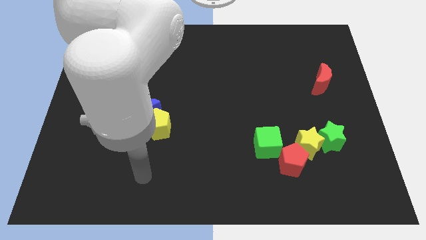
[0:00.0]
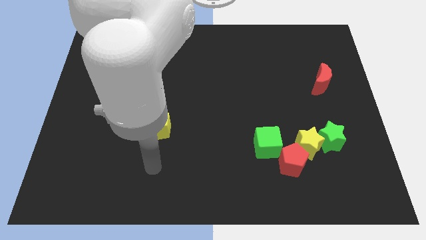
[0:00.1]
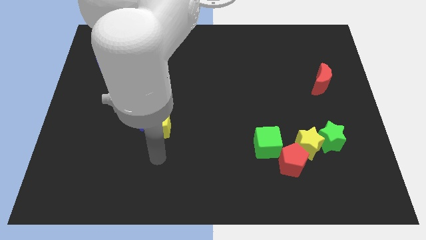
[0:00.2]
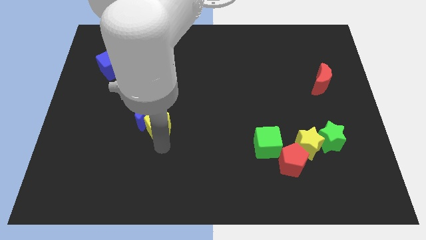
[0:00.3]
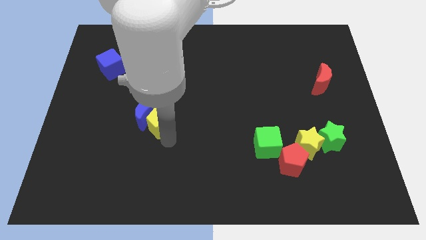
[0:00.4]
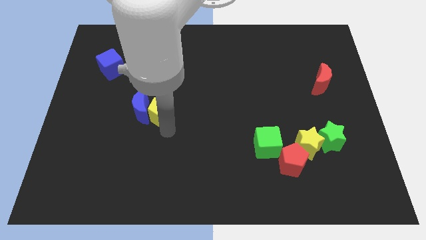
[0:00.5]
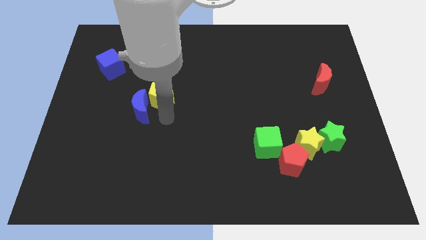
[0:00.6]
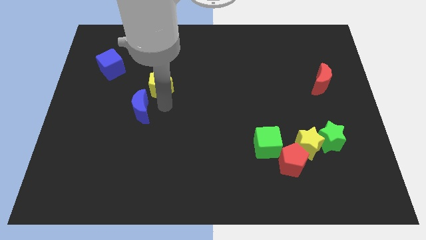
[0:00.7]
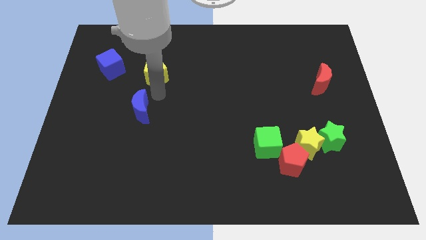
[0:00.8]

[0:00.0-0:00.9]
pull the blue moon apart from the yellow pentagon

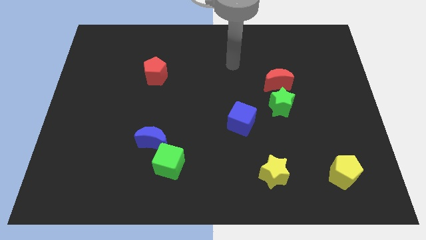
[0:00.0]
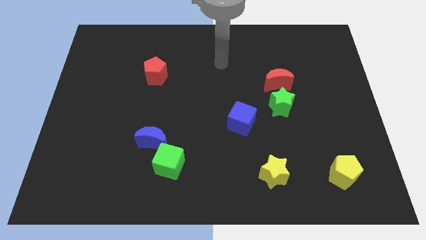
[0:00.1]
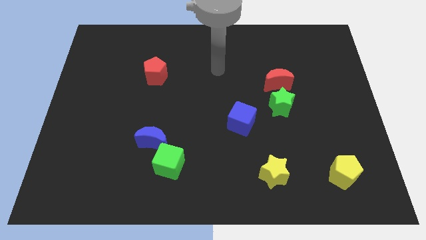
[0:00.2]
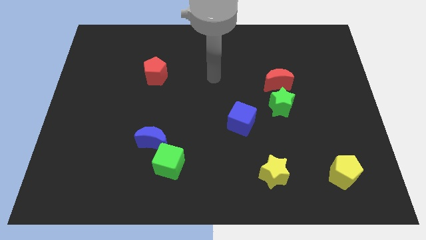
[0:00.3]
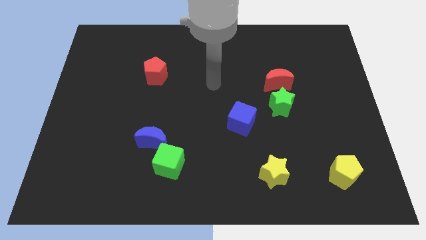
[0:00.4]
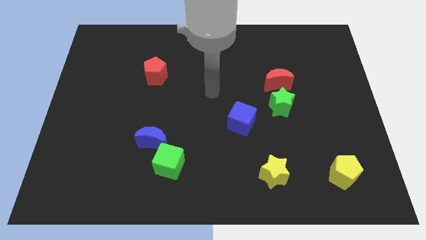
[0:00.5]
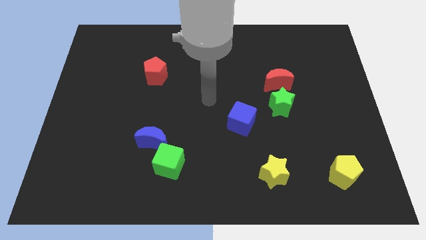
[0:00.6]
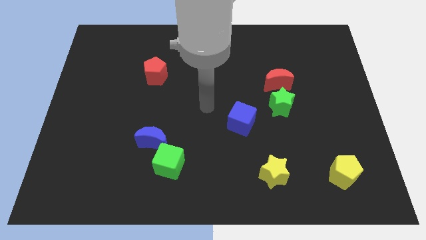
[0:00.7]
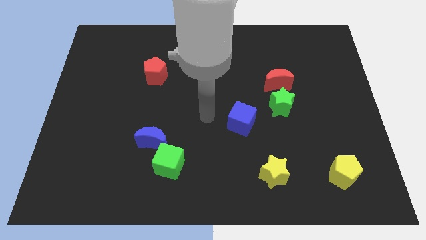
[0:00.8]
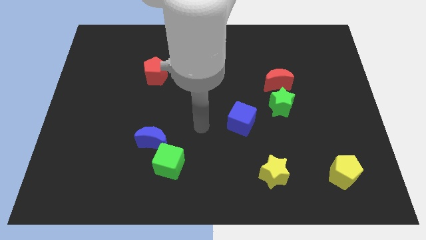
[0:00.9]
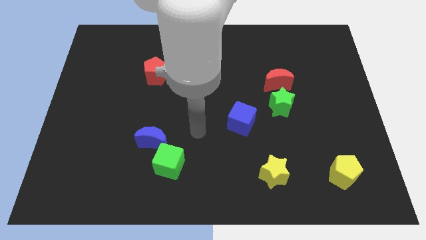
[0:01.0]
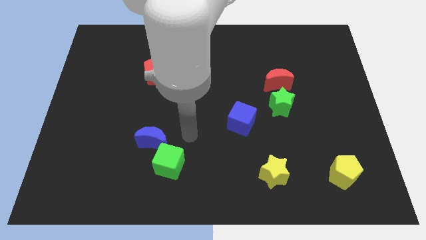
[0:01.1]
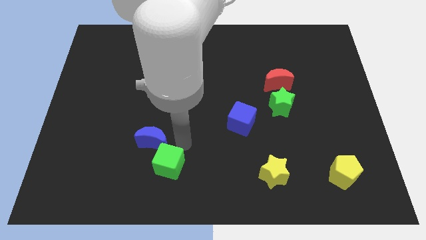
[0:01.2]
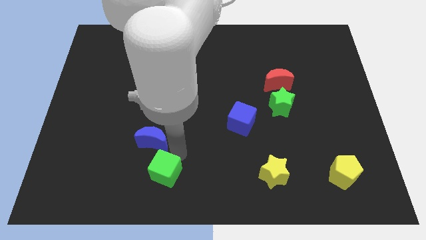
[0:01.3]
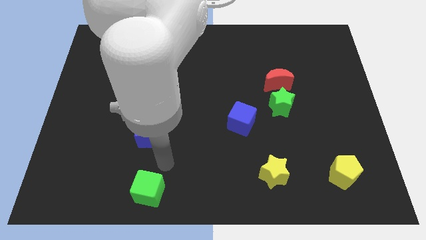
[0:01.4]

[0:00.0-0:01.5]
move the blue moon away from the green cube

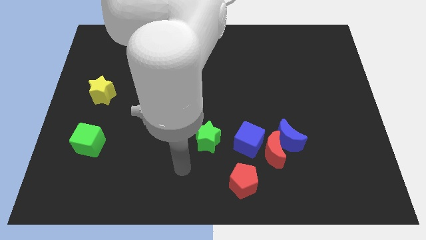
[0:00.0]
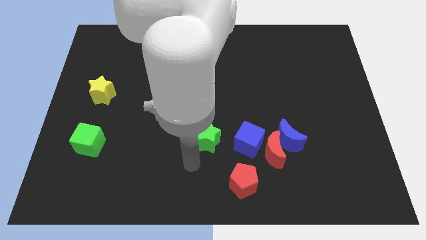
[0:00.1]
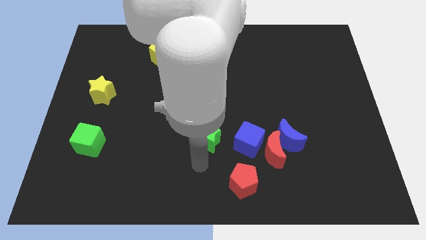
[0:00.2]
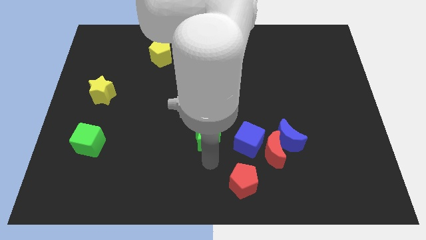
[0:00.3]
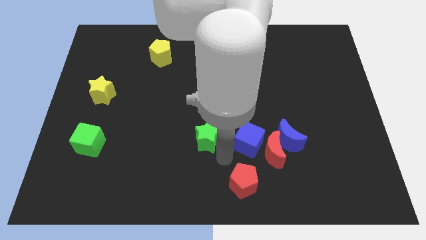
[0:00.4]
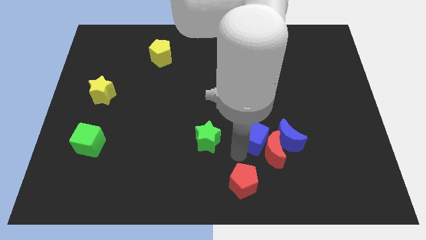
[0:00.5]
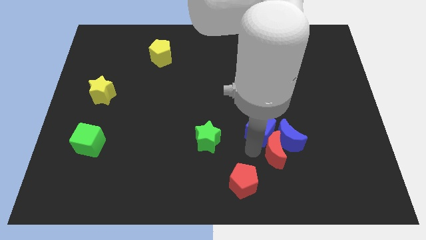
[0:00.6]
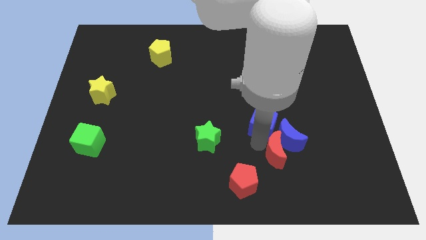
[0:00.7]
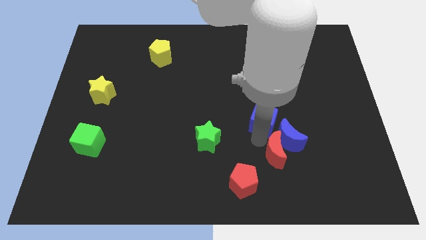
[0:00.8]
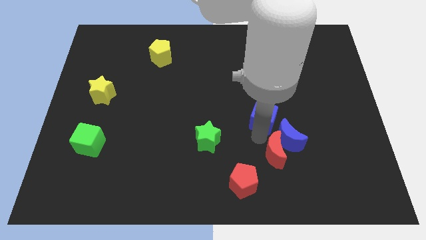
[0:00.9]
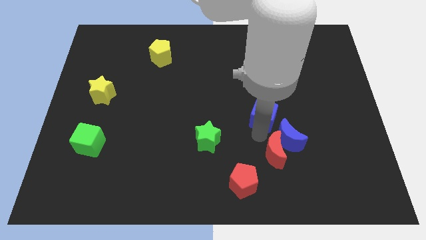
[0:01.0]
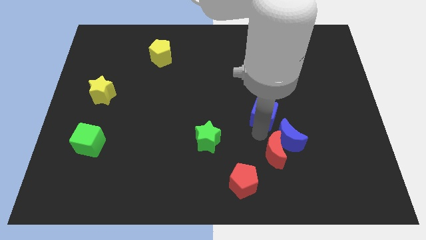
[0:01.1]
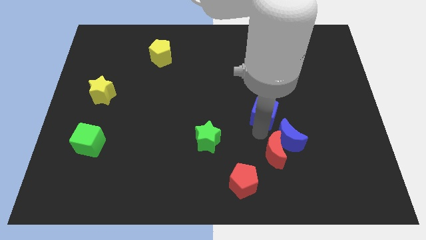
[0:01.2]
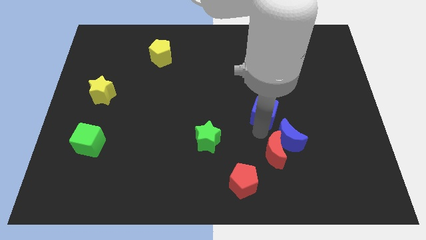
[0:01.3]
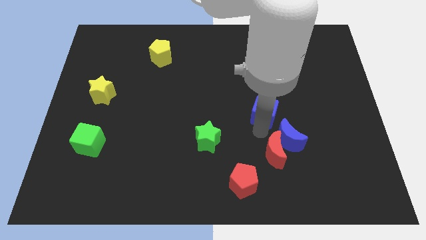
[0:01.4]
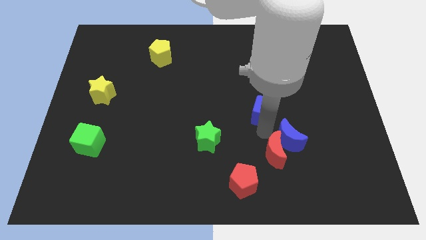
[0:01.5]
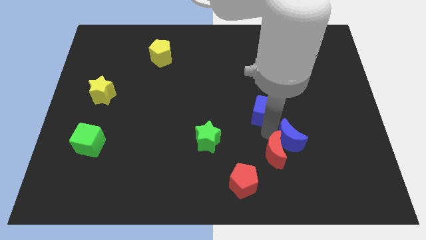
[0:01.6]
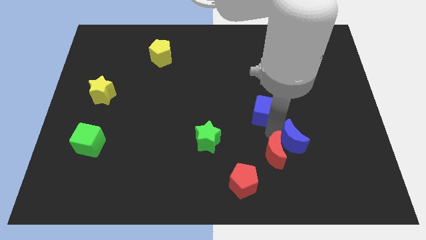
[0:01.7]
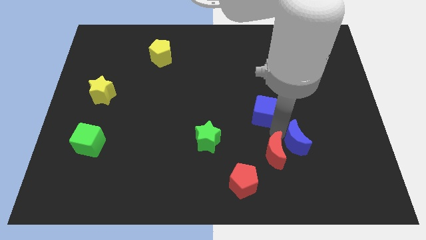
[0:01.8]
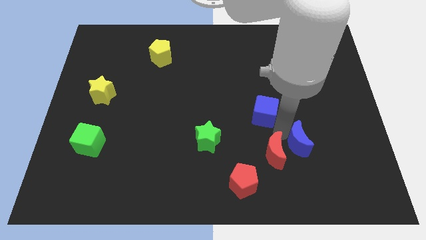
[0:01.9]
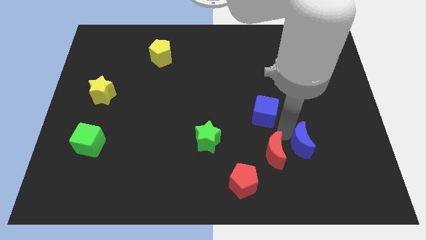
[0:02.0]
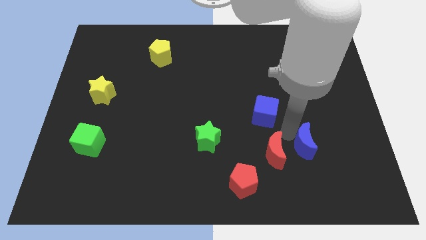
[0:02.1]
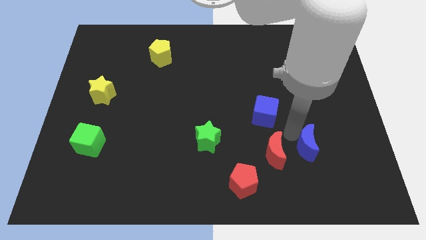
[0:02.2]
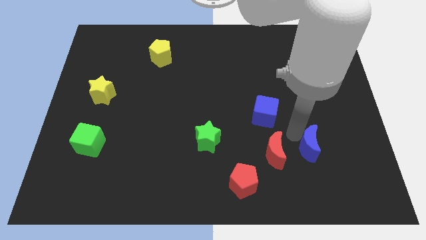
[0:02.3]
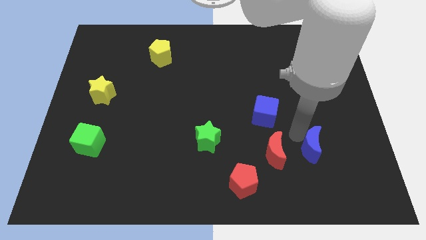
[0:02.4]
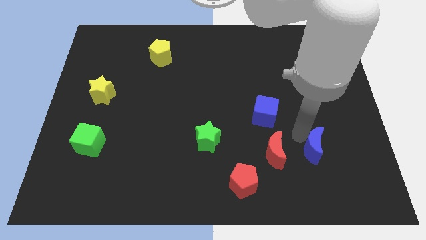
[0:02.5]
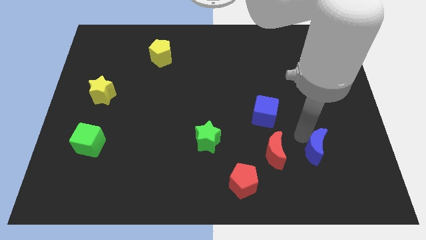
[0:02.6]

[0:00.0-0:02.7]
pull the blue moon apart from the red moon and blue cube

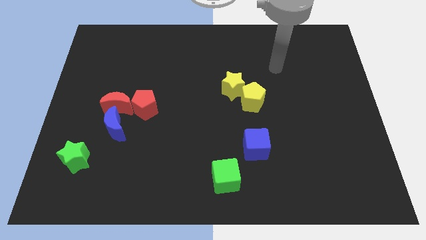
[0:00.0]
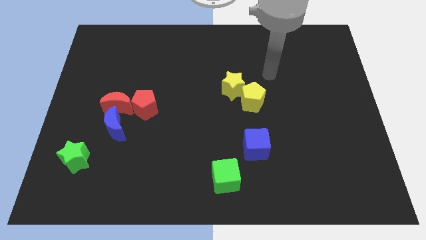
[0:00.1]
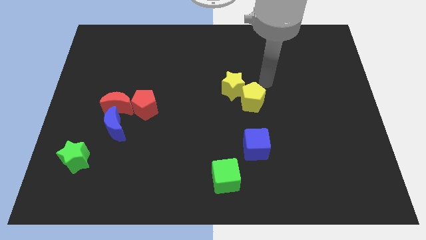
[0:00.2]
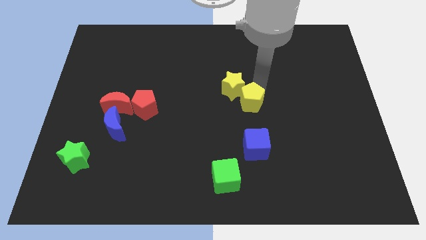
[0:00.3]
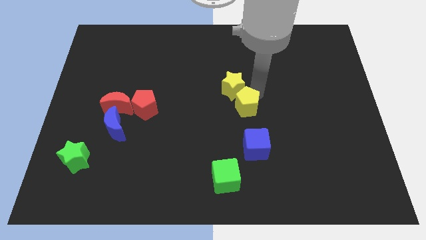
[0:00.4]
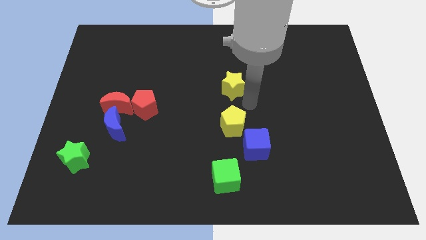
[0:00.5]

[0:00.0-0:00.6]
pull the yellow star apart from the yellow pentagon

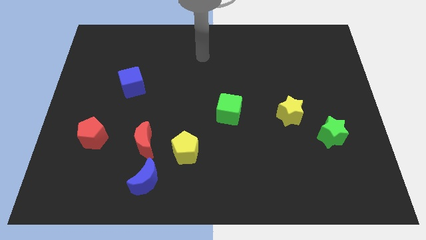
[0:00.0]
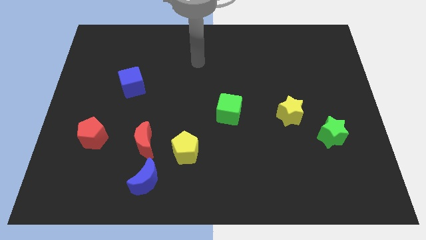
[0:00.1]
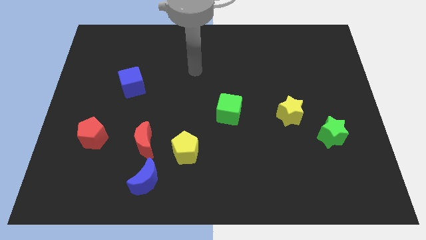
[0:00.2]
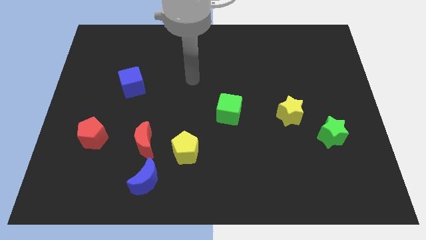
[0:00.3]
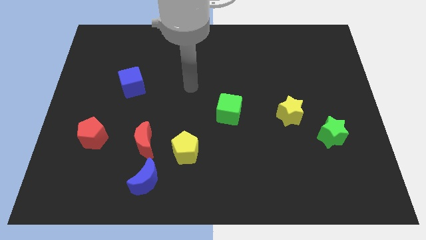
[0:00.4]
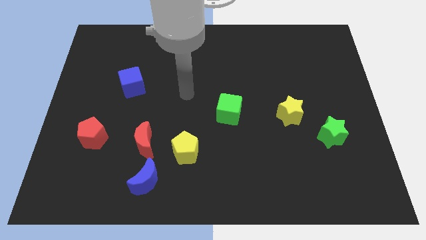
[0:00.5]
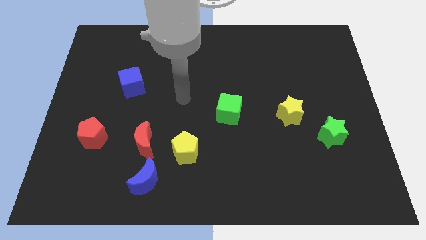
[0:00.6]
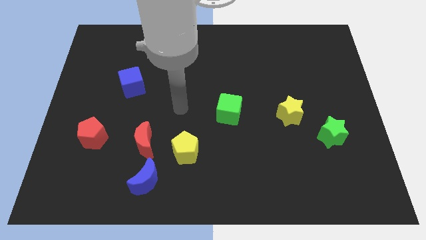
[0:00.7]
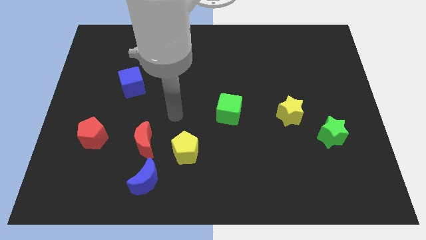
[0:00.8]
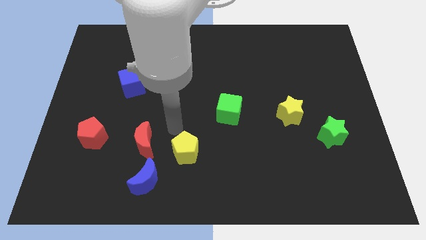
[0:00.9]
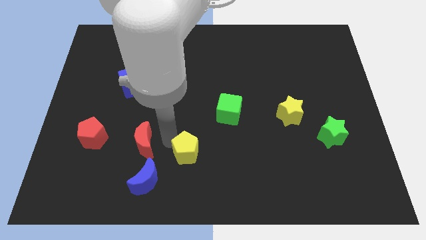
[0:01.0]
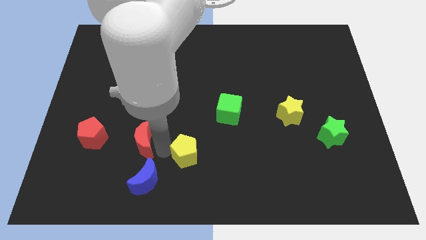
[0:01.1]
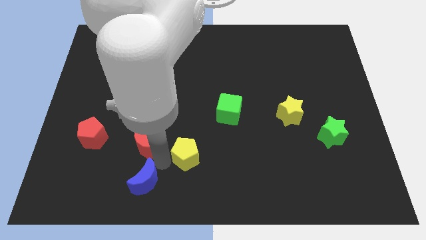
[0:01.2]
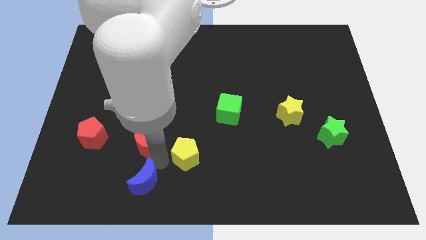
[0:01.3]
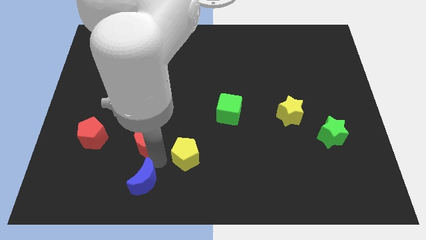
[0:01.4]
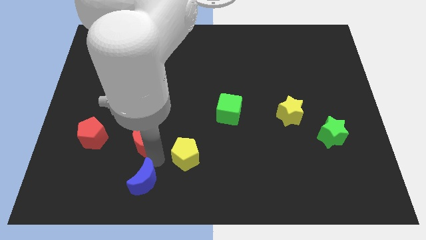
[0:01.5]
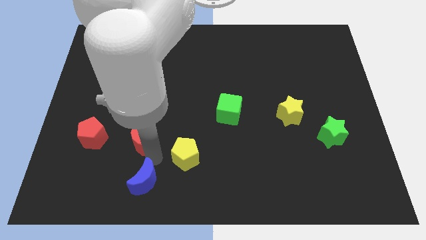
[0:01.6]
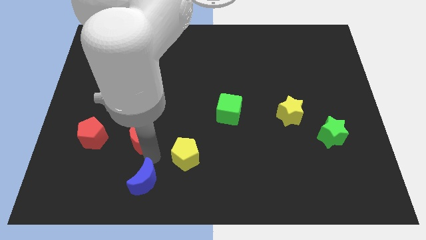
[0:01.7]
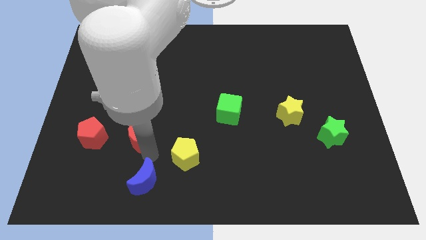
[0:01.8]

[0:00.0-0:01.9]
move the red moon away from the blue moon and yellow pentagon

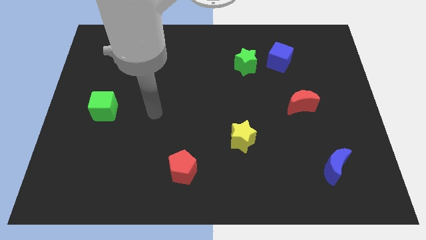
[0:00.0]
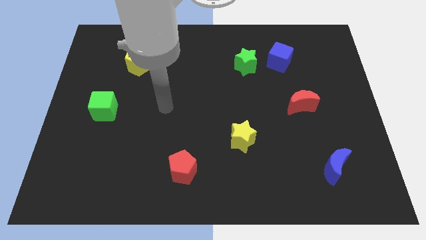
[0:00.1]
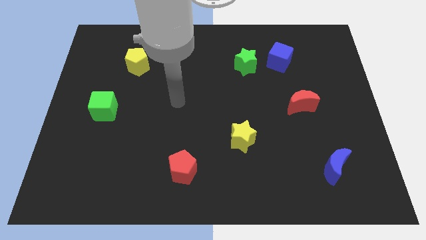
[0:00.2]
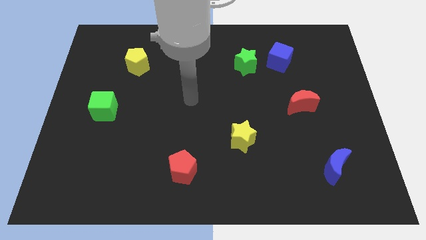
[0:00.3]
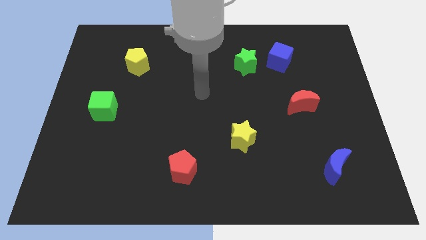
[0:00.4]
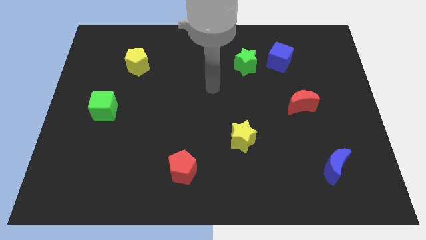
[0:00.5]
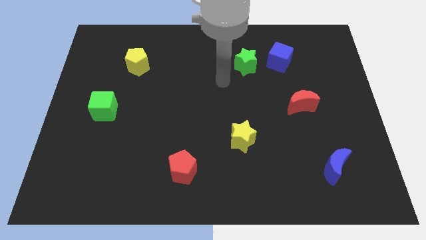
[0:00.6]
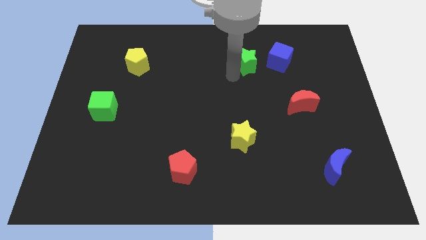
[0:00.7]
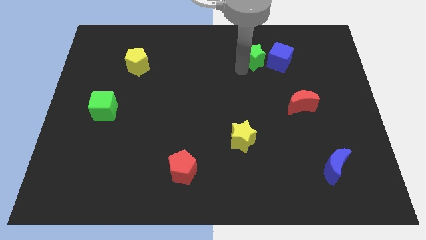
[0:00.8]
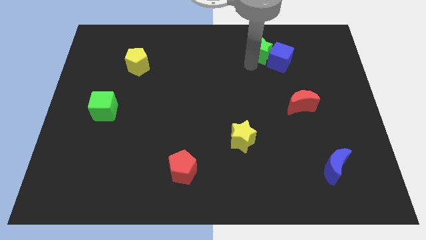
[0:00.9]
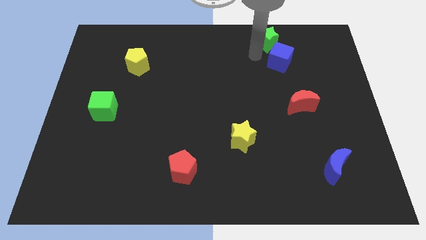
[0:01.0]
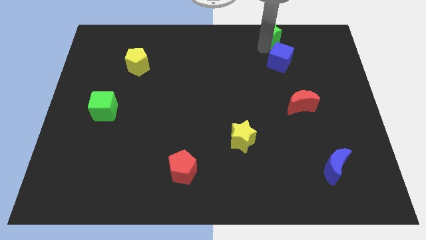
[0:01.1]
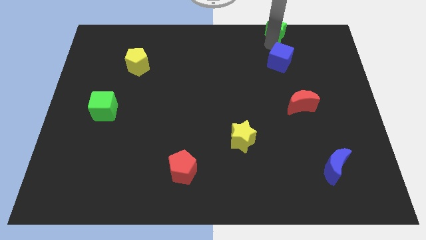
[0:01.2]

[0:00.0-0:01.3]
separate the blue cube from the green star

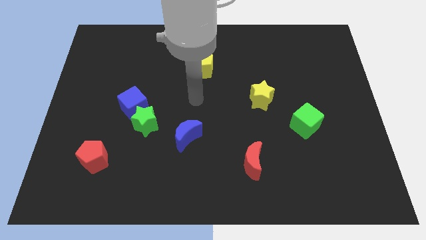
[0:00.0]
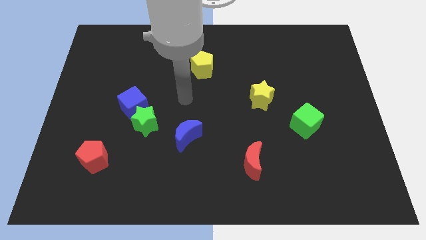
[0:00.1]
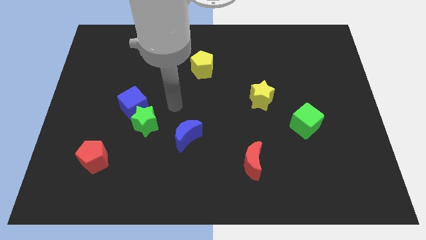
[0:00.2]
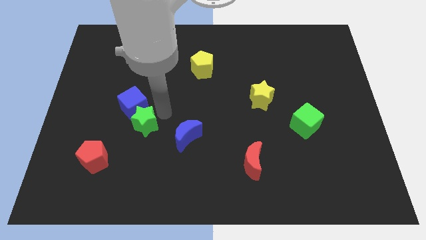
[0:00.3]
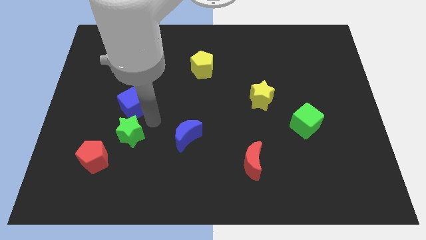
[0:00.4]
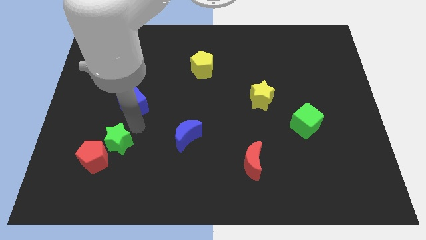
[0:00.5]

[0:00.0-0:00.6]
pull the blue cube apart from the green star
